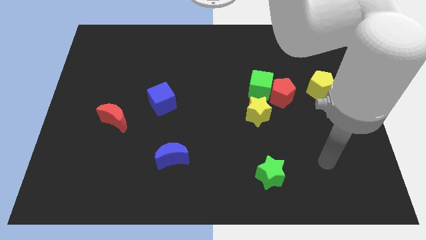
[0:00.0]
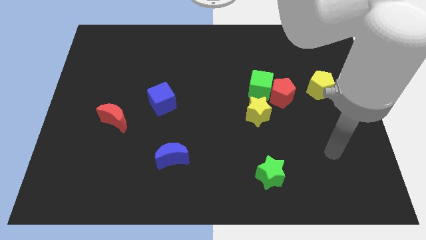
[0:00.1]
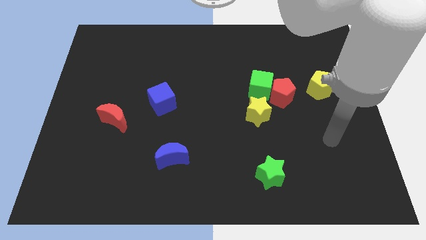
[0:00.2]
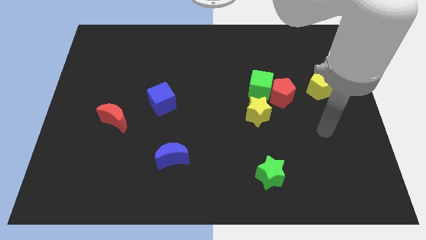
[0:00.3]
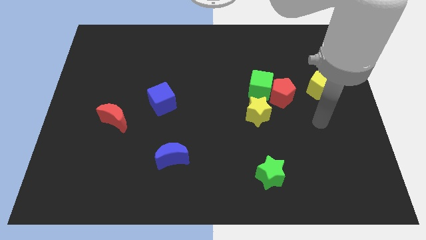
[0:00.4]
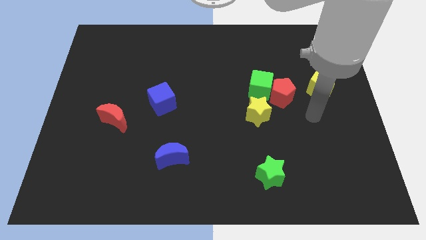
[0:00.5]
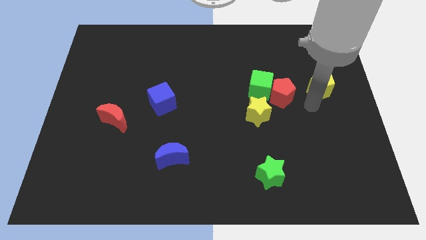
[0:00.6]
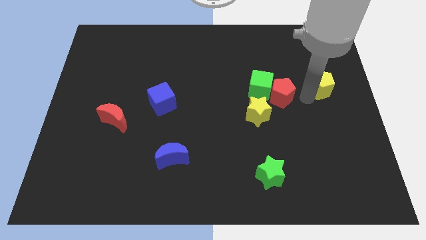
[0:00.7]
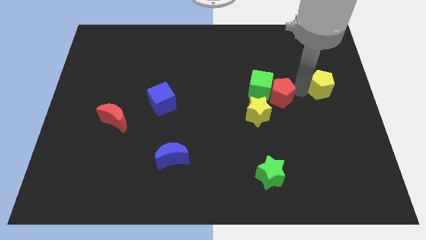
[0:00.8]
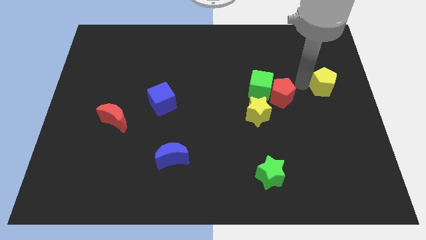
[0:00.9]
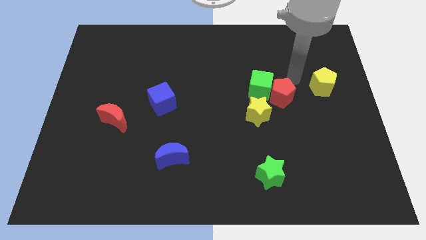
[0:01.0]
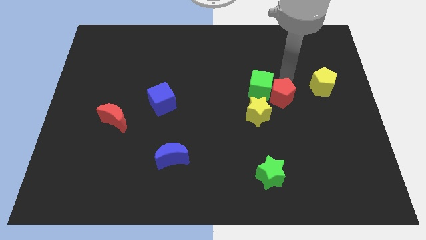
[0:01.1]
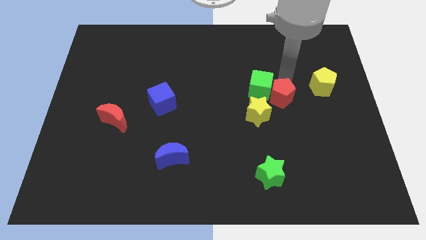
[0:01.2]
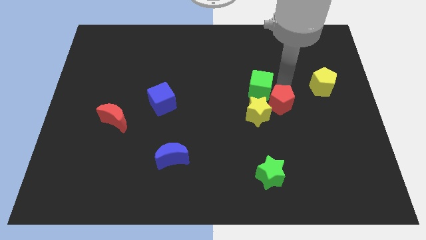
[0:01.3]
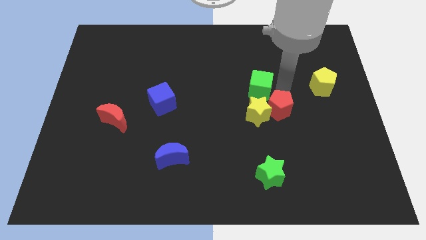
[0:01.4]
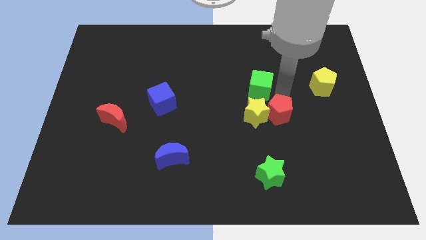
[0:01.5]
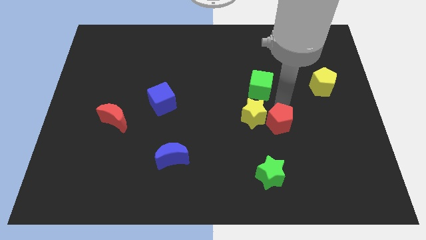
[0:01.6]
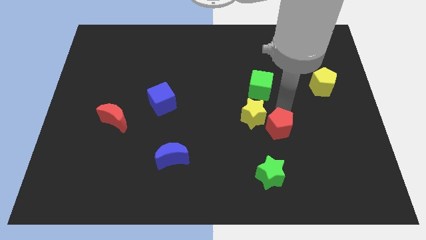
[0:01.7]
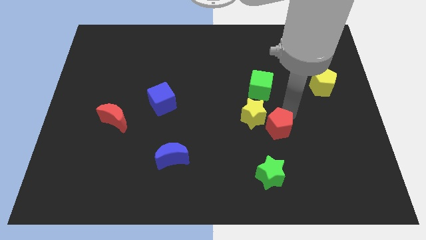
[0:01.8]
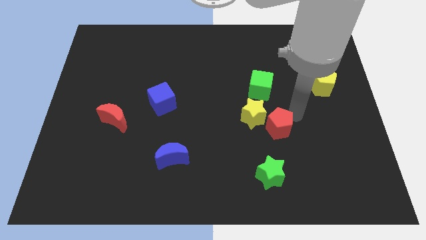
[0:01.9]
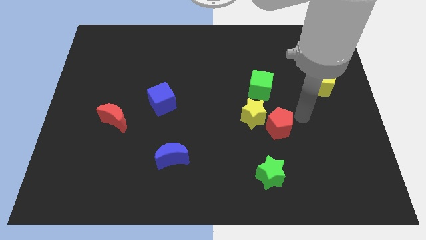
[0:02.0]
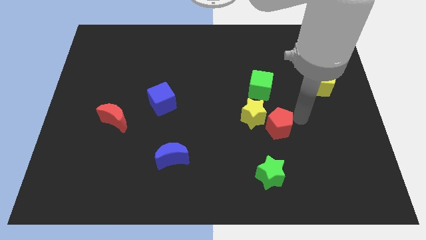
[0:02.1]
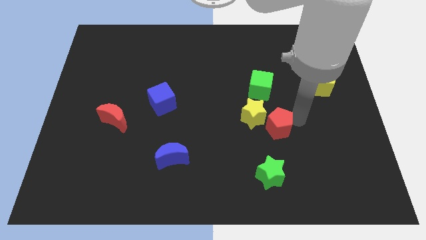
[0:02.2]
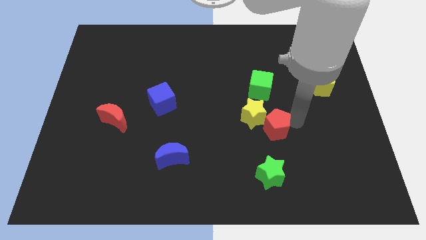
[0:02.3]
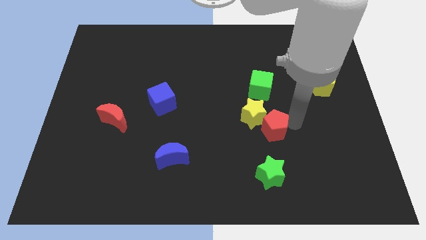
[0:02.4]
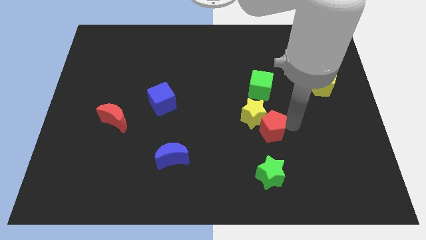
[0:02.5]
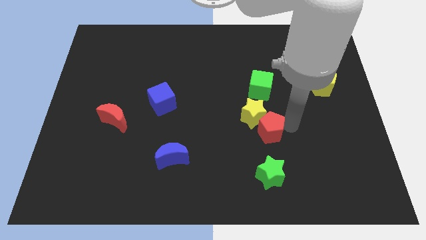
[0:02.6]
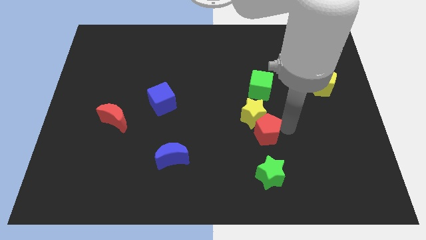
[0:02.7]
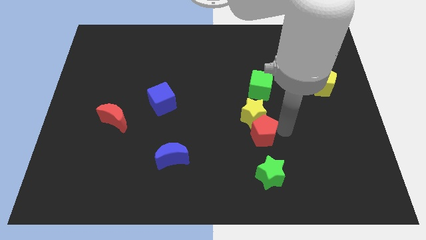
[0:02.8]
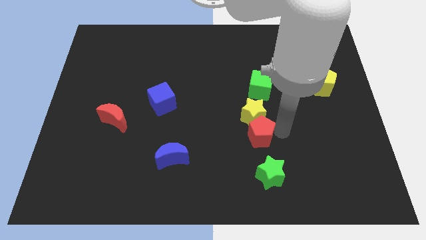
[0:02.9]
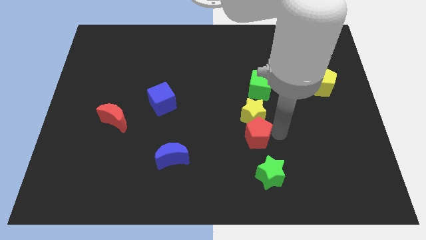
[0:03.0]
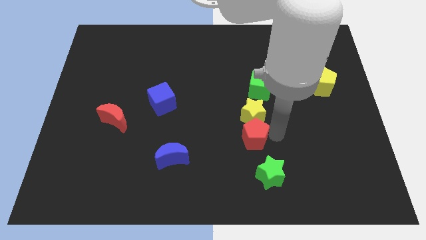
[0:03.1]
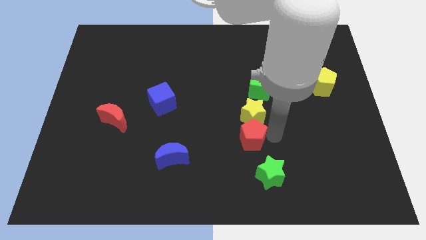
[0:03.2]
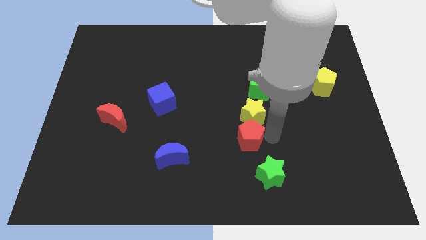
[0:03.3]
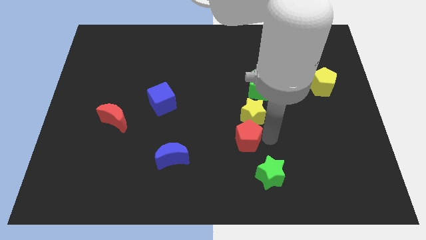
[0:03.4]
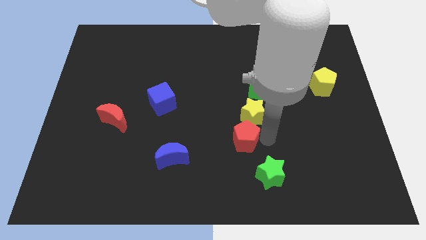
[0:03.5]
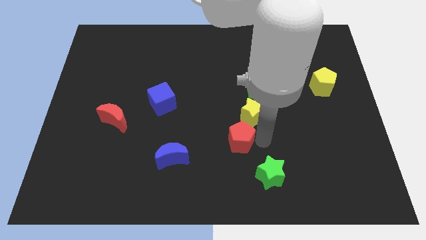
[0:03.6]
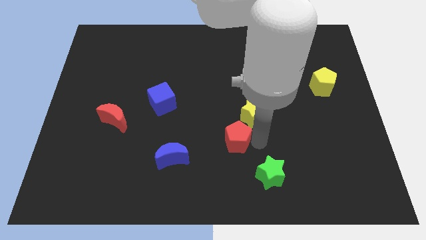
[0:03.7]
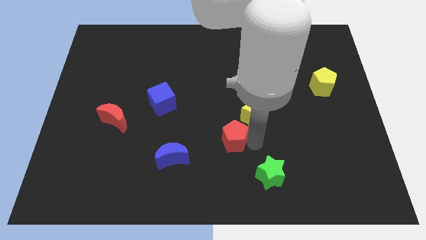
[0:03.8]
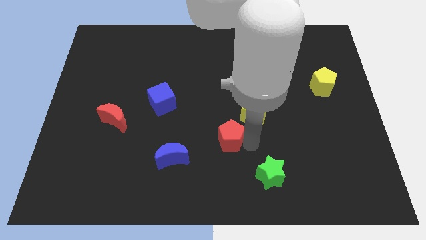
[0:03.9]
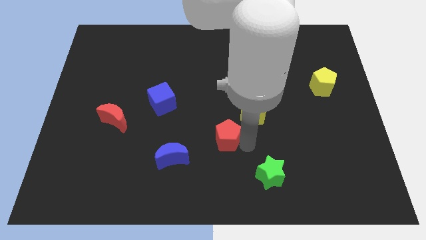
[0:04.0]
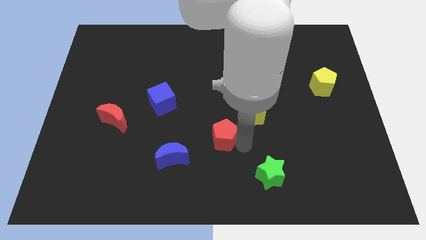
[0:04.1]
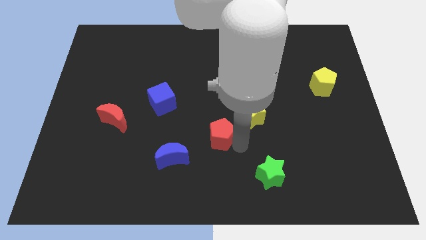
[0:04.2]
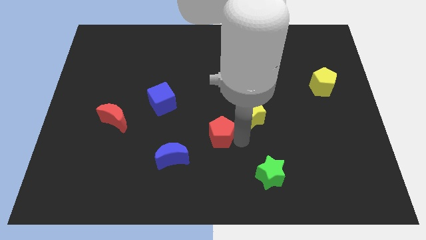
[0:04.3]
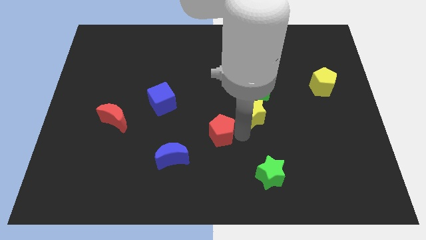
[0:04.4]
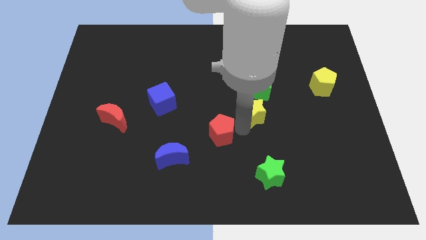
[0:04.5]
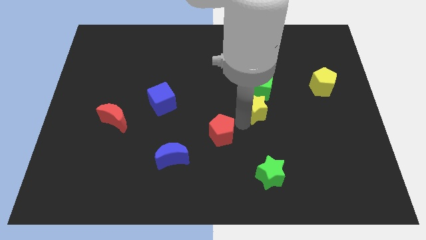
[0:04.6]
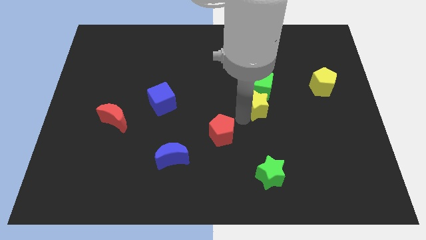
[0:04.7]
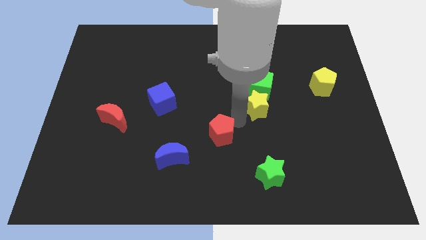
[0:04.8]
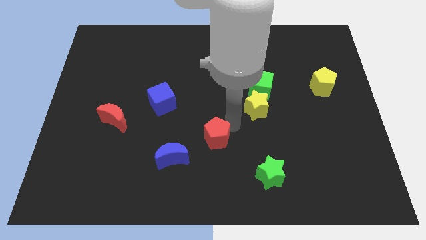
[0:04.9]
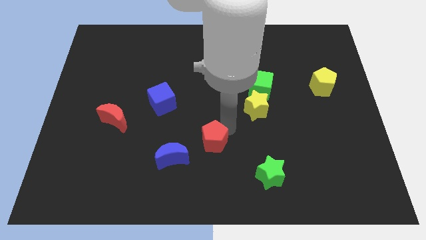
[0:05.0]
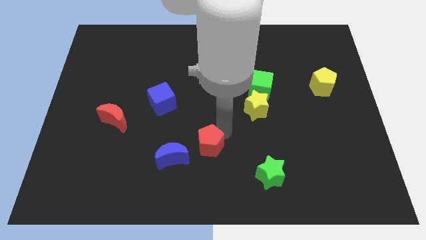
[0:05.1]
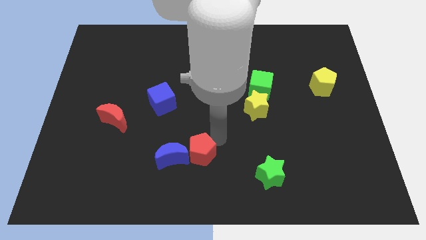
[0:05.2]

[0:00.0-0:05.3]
slide the red pentagon towards the blue moon

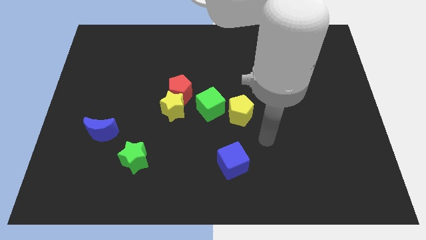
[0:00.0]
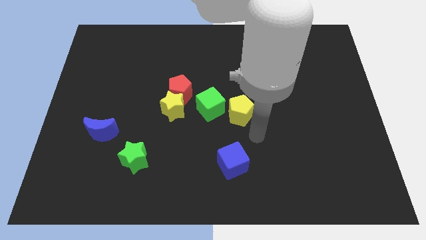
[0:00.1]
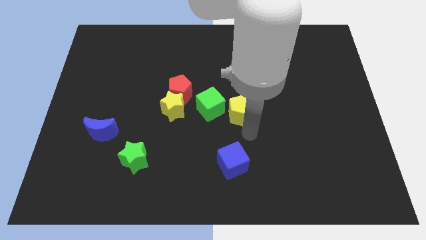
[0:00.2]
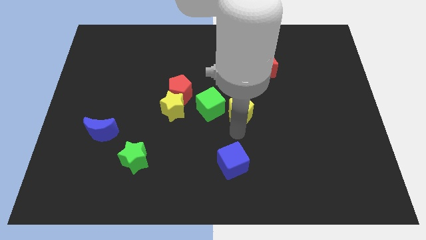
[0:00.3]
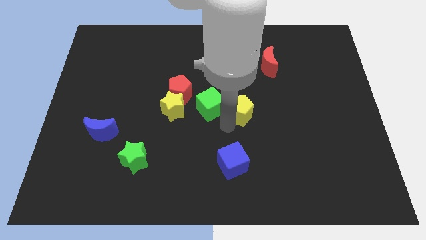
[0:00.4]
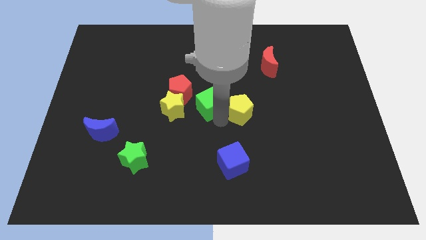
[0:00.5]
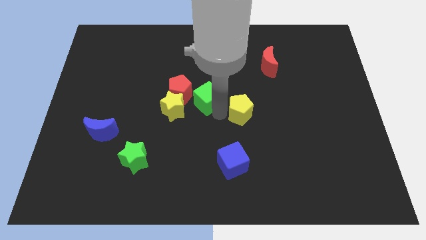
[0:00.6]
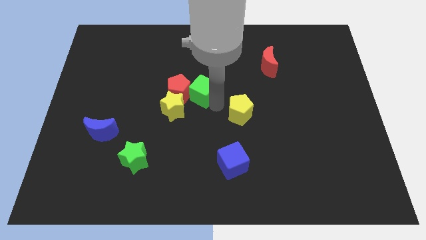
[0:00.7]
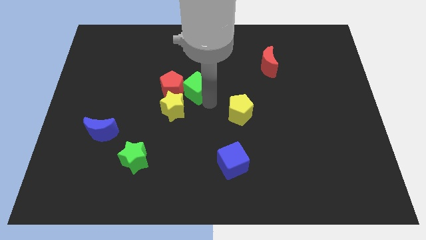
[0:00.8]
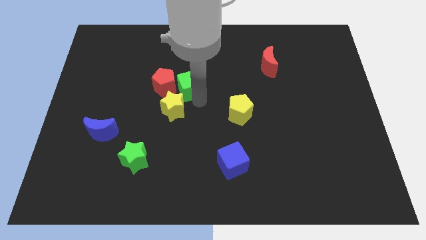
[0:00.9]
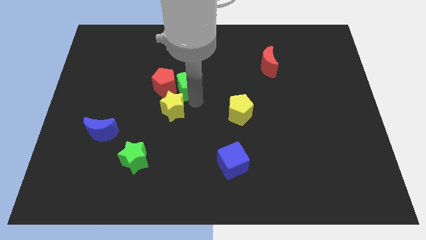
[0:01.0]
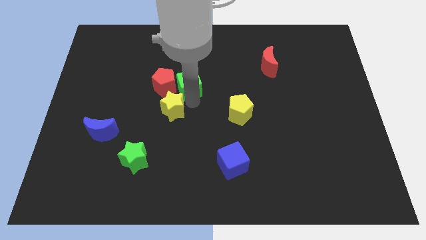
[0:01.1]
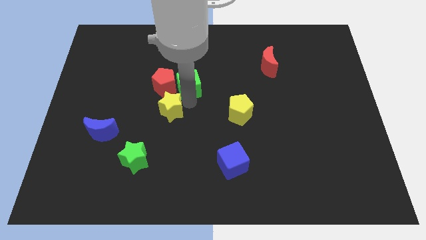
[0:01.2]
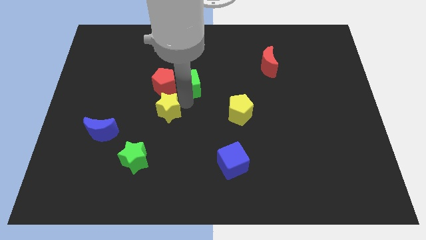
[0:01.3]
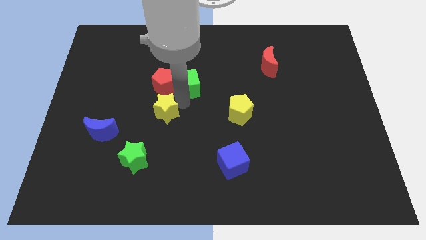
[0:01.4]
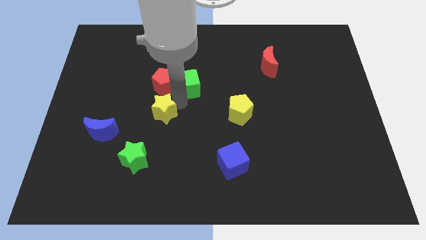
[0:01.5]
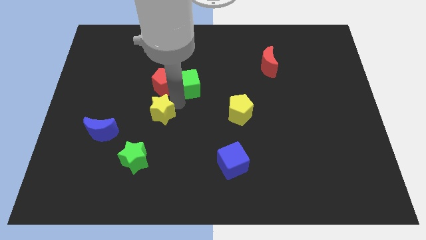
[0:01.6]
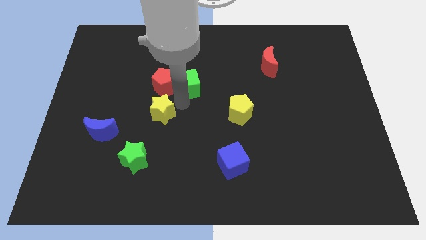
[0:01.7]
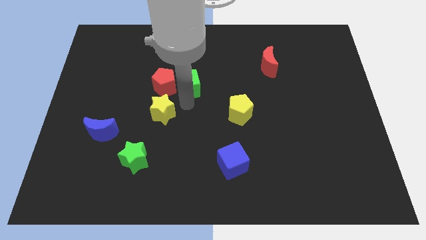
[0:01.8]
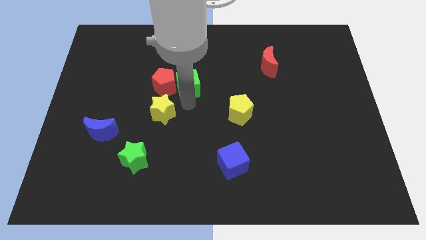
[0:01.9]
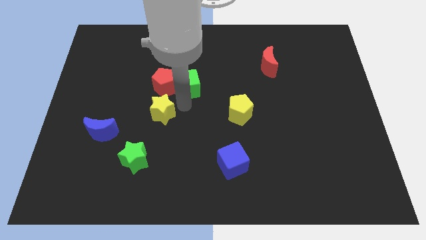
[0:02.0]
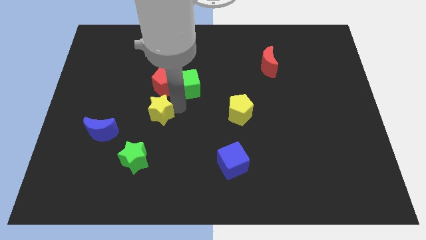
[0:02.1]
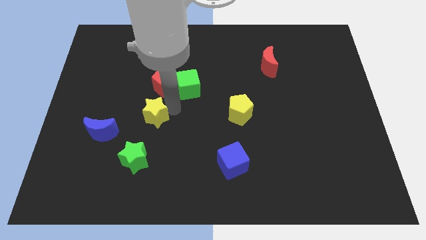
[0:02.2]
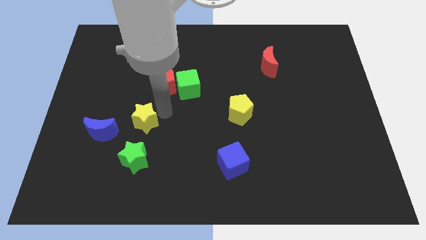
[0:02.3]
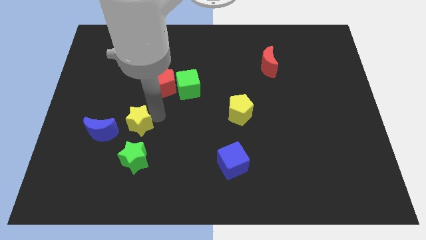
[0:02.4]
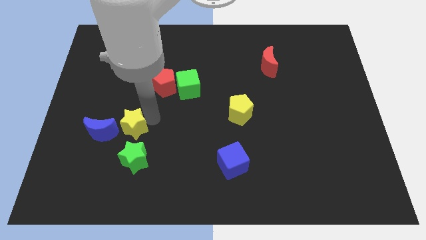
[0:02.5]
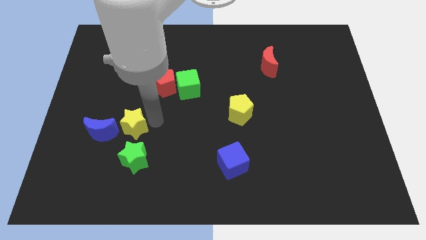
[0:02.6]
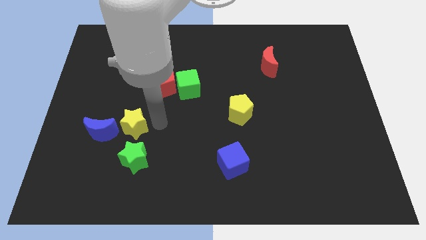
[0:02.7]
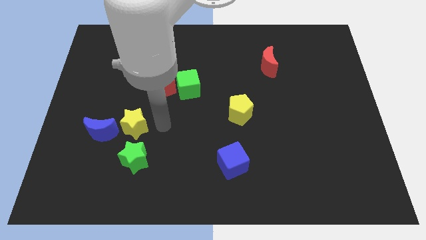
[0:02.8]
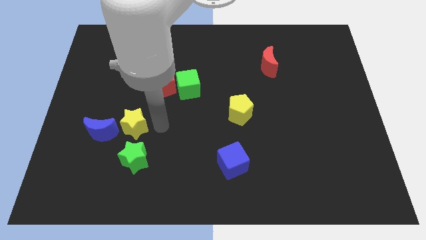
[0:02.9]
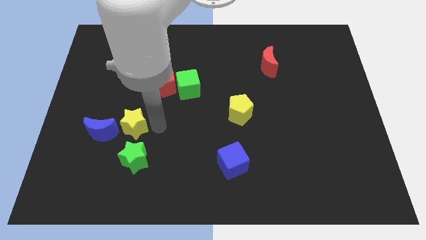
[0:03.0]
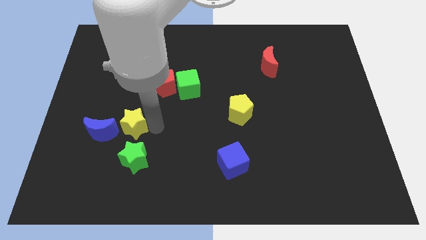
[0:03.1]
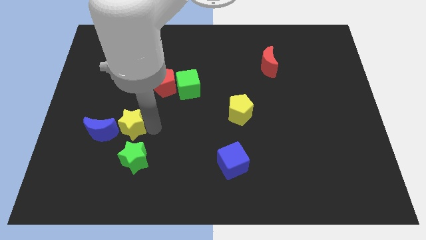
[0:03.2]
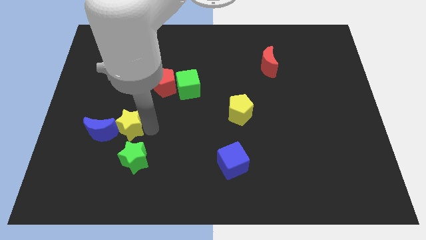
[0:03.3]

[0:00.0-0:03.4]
push the yellow star close to the blue moon
